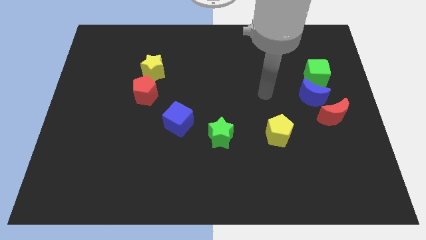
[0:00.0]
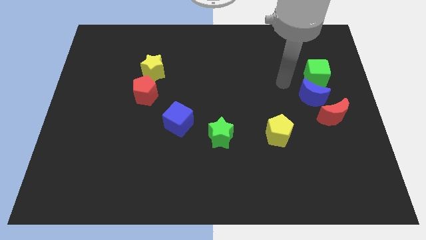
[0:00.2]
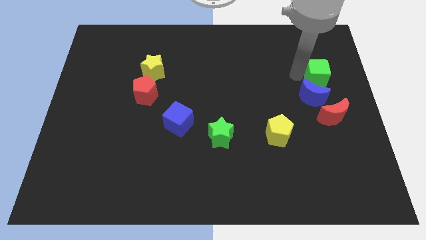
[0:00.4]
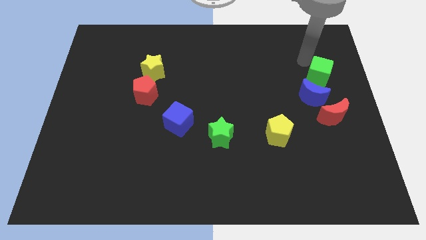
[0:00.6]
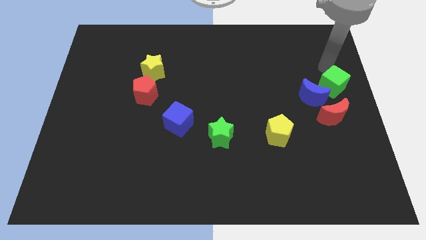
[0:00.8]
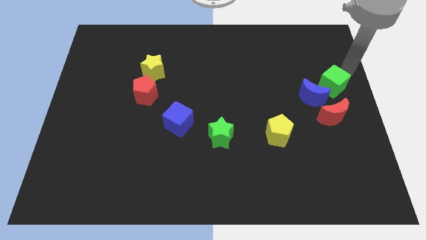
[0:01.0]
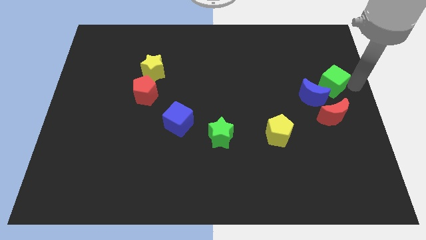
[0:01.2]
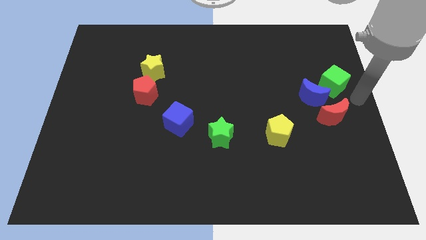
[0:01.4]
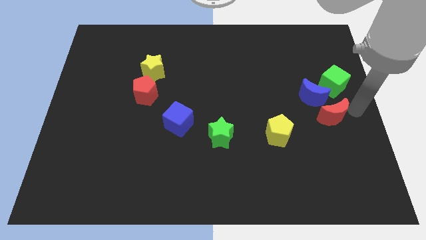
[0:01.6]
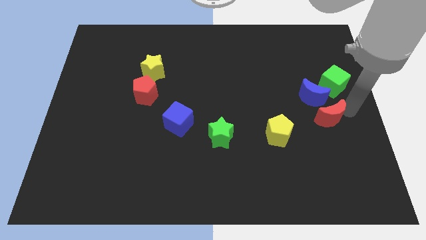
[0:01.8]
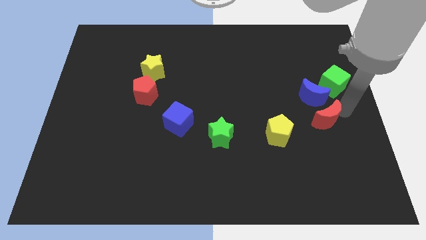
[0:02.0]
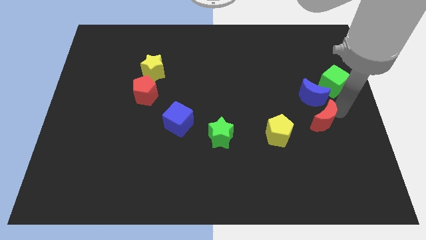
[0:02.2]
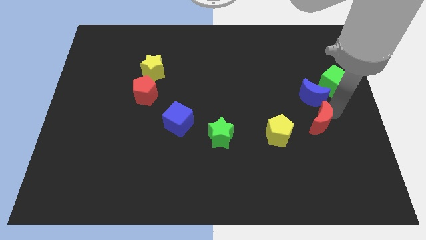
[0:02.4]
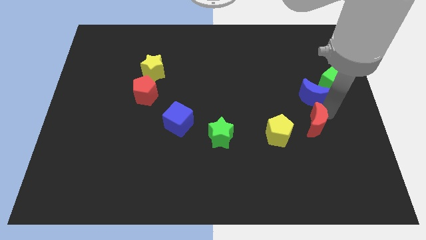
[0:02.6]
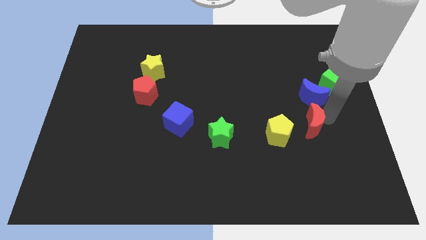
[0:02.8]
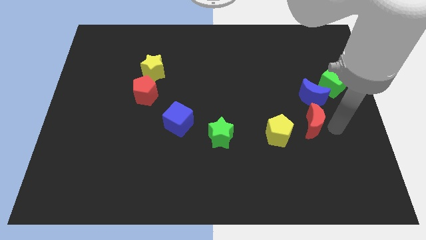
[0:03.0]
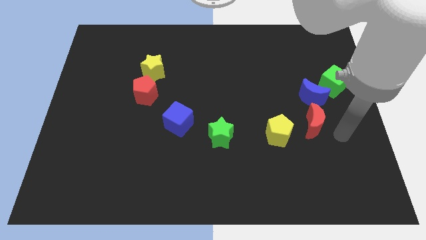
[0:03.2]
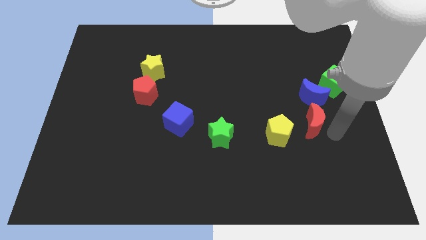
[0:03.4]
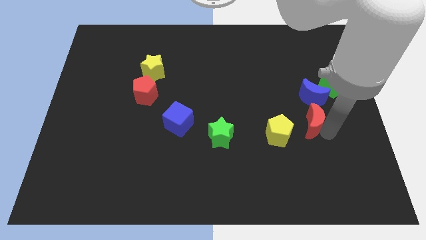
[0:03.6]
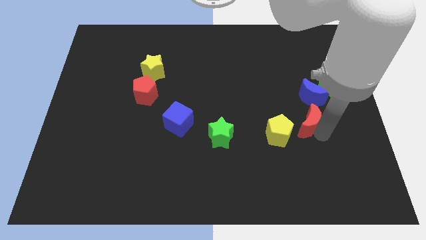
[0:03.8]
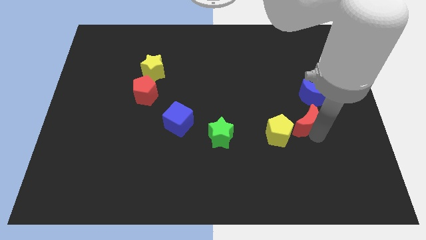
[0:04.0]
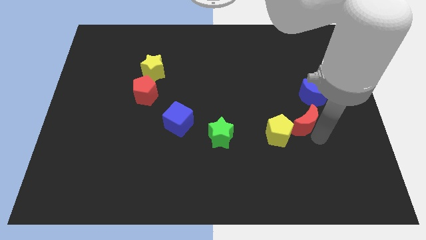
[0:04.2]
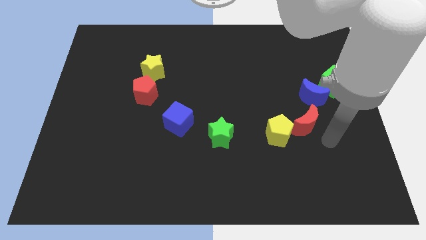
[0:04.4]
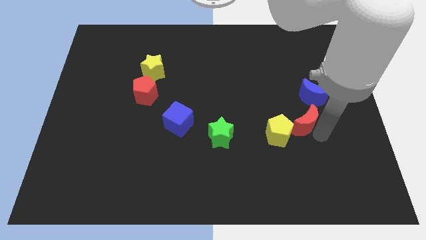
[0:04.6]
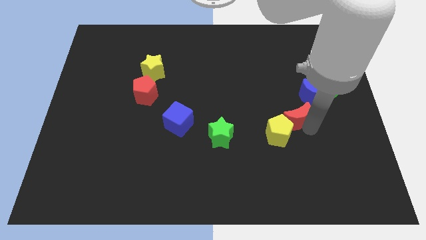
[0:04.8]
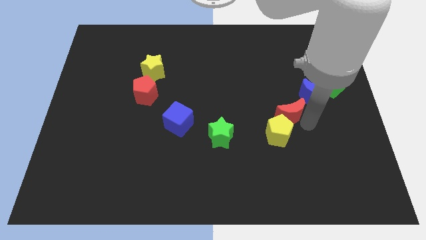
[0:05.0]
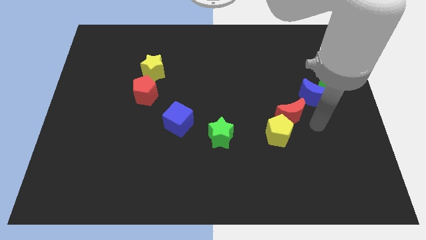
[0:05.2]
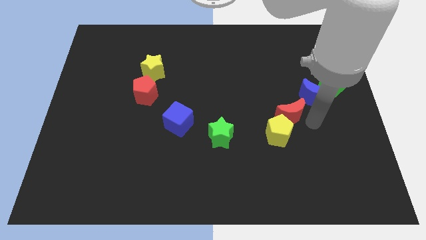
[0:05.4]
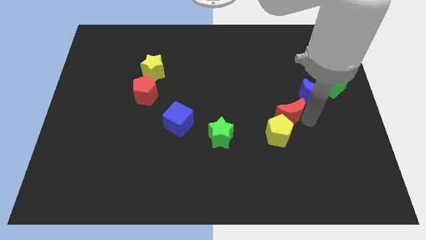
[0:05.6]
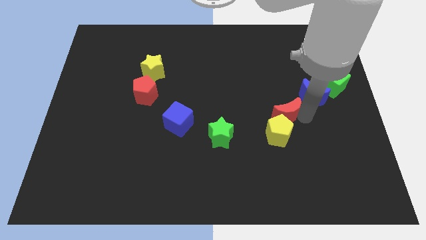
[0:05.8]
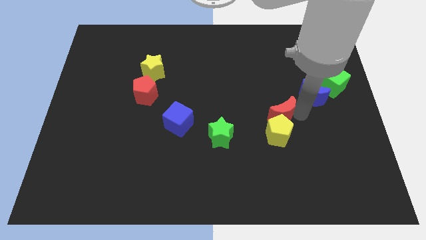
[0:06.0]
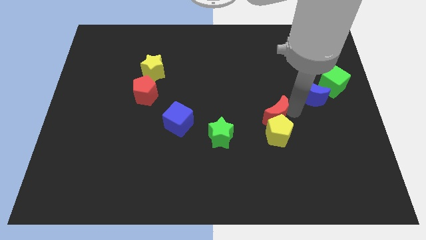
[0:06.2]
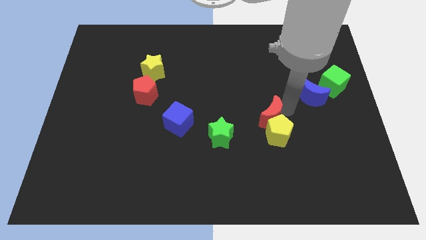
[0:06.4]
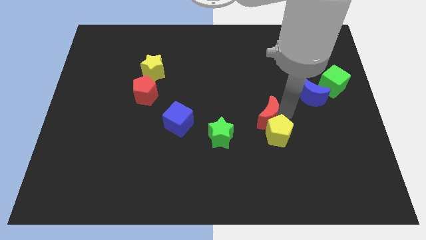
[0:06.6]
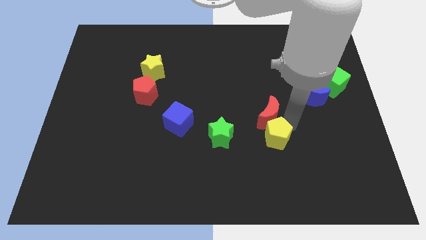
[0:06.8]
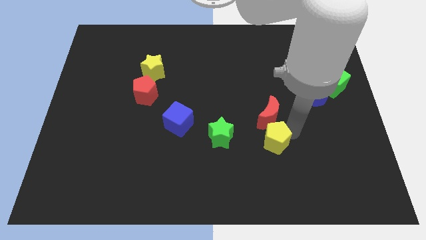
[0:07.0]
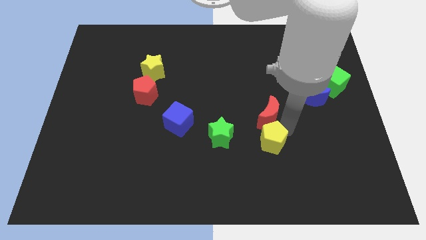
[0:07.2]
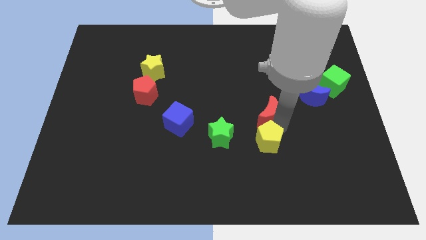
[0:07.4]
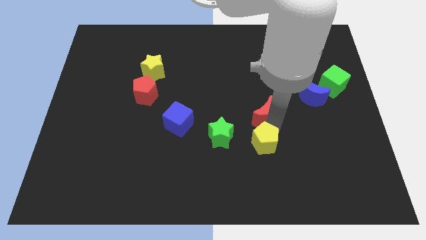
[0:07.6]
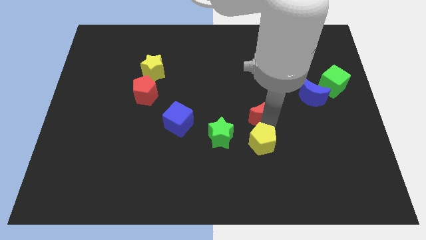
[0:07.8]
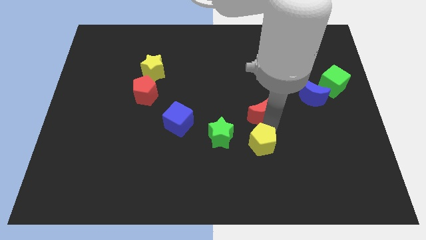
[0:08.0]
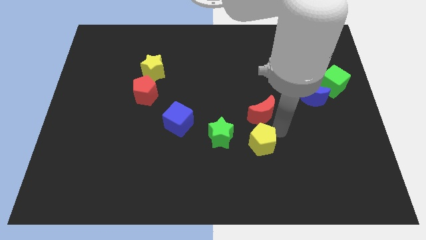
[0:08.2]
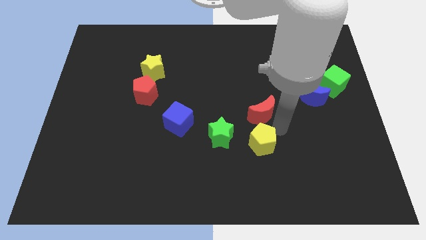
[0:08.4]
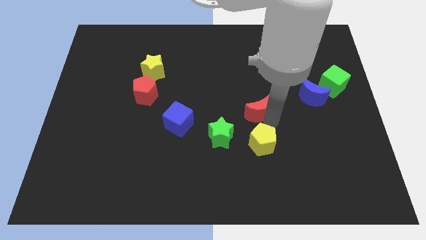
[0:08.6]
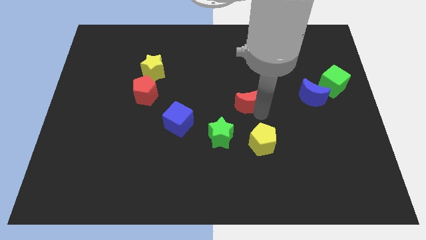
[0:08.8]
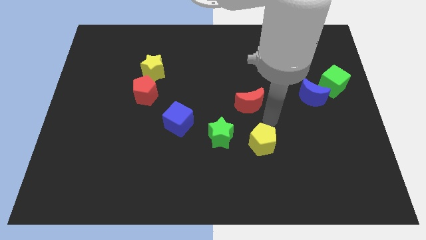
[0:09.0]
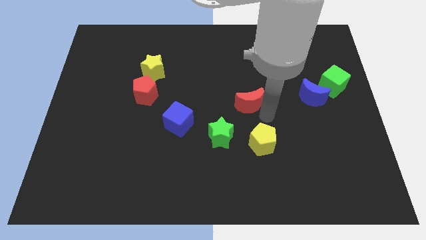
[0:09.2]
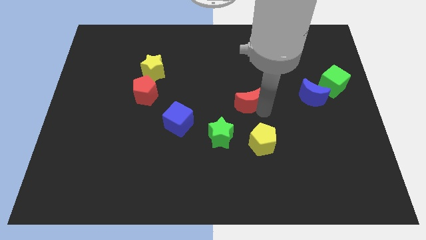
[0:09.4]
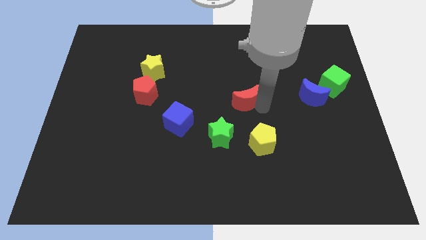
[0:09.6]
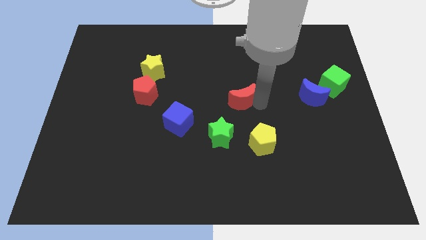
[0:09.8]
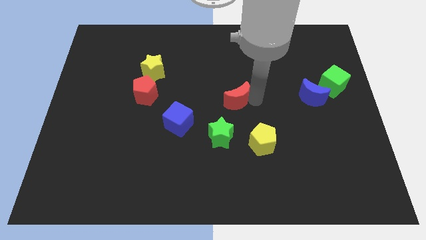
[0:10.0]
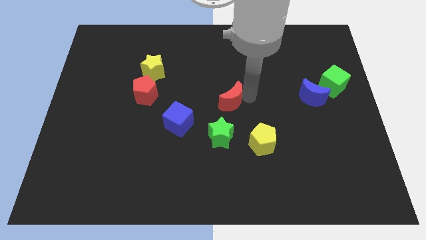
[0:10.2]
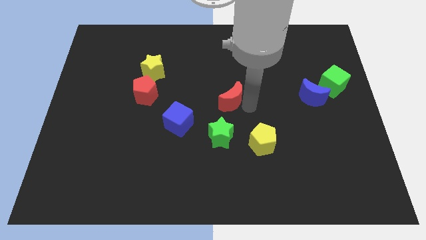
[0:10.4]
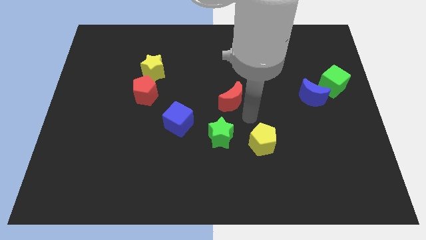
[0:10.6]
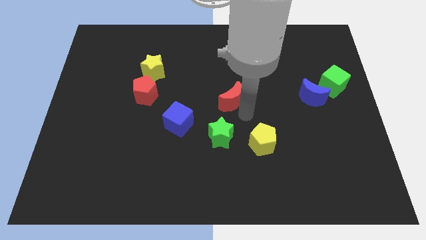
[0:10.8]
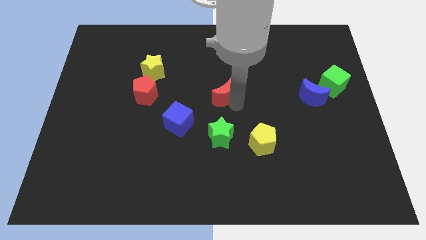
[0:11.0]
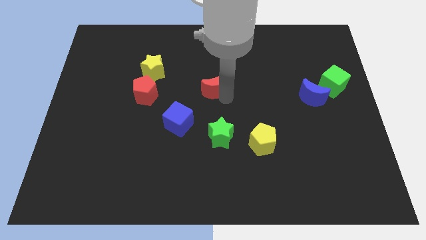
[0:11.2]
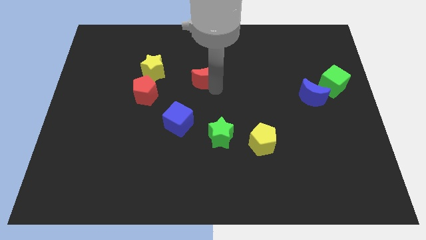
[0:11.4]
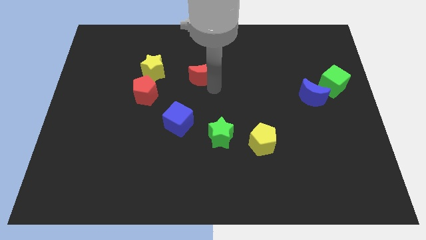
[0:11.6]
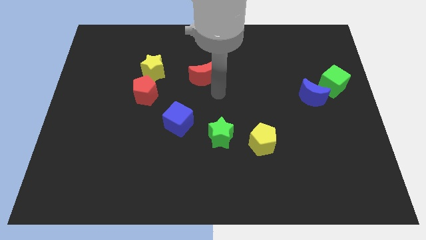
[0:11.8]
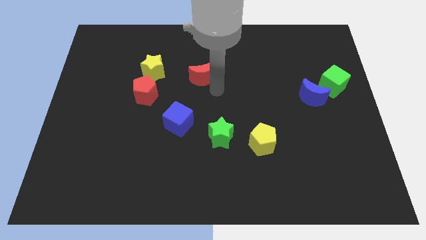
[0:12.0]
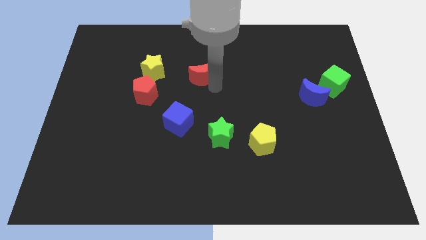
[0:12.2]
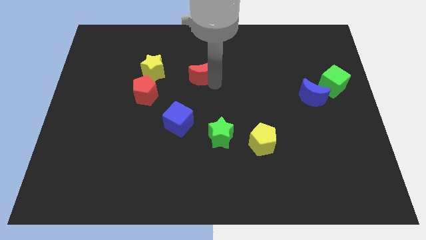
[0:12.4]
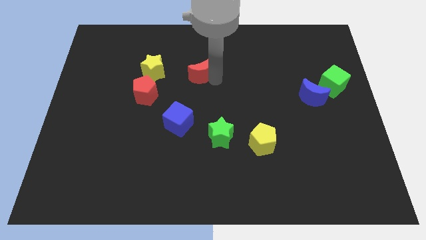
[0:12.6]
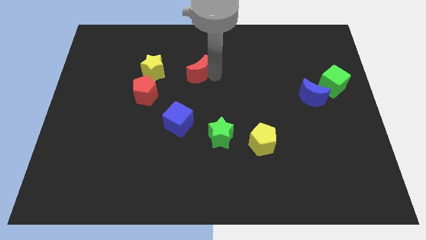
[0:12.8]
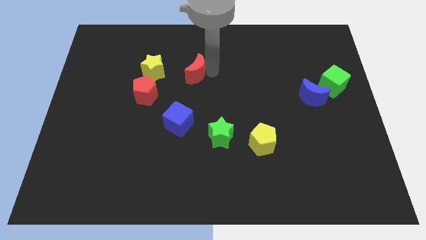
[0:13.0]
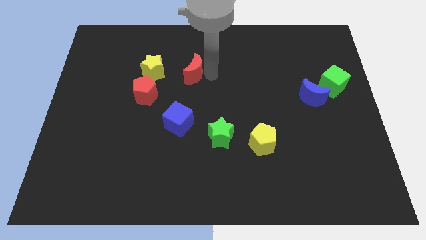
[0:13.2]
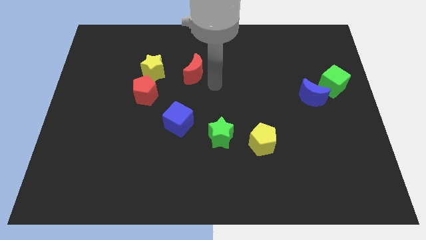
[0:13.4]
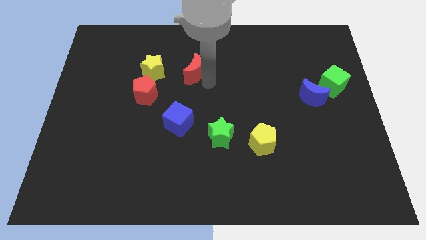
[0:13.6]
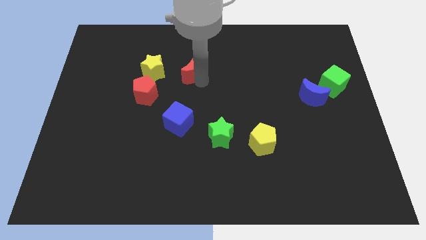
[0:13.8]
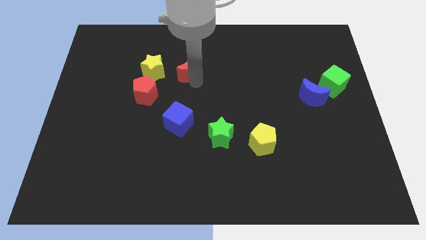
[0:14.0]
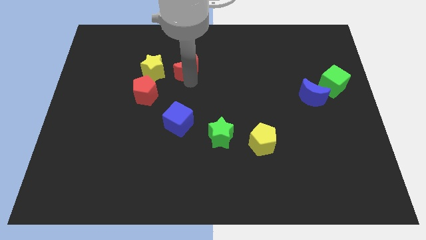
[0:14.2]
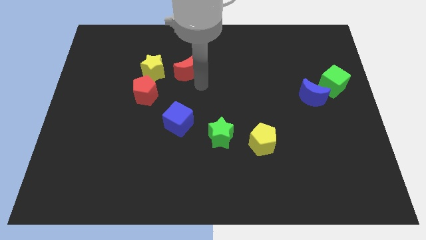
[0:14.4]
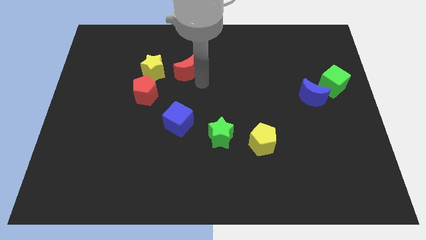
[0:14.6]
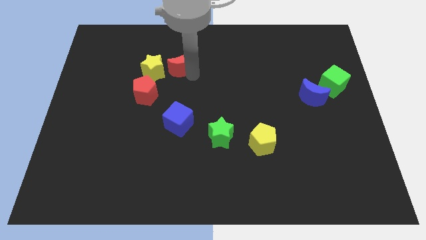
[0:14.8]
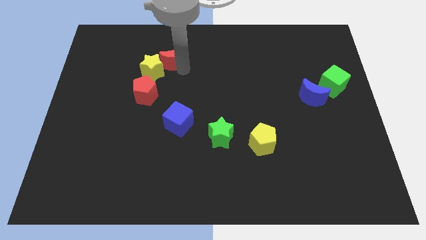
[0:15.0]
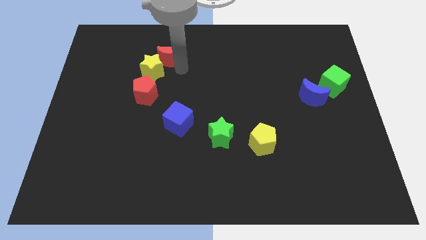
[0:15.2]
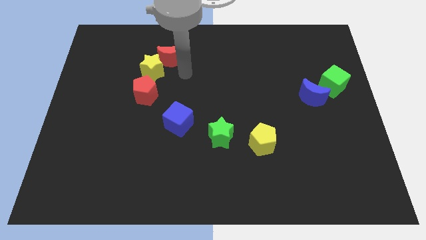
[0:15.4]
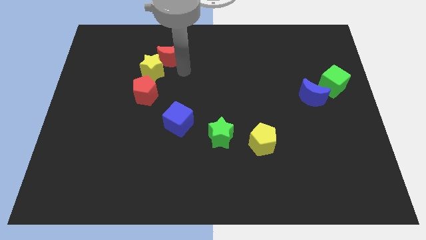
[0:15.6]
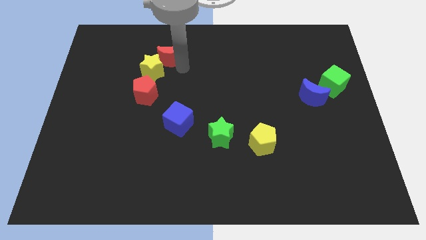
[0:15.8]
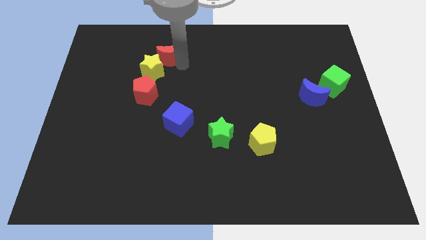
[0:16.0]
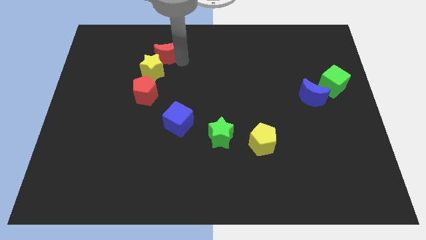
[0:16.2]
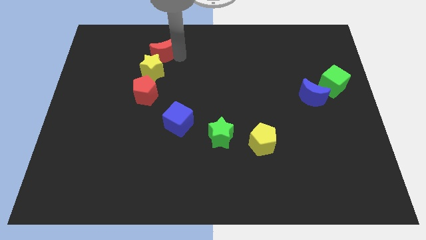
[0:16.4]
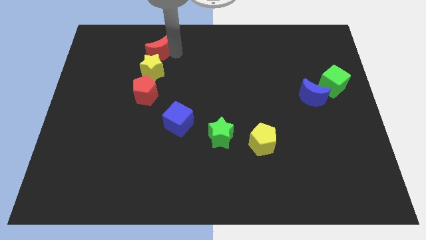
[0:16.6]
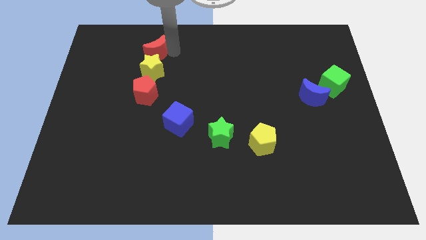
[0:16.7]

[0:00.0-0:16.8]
push the red moon to the top left side of the yellow star
